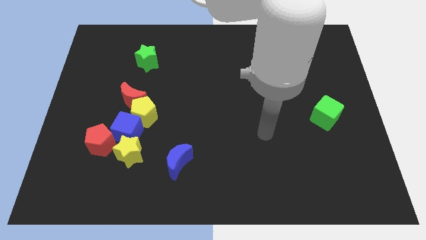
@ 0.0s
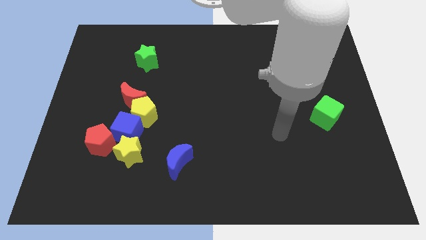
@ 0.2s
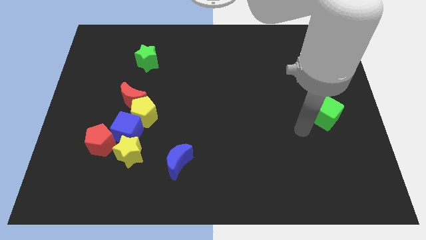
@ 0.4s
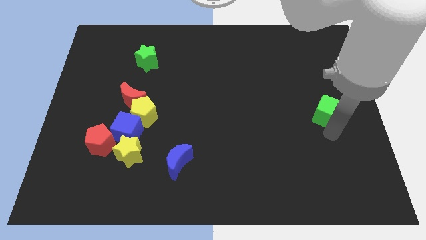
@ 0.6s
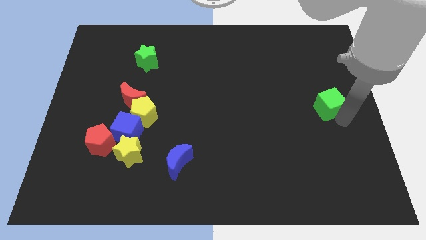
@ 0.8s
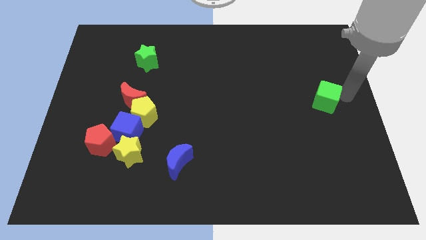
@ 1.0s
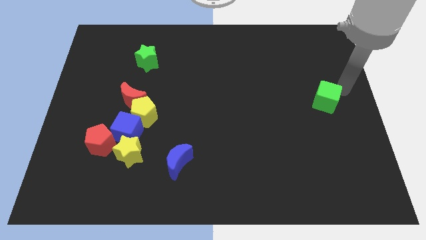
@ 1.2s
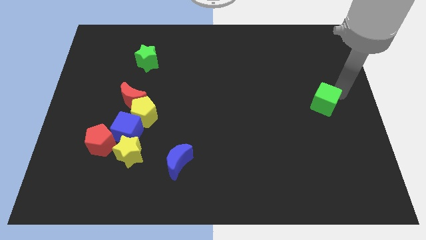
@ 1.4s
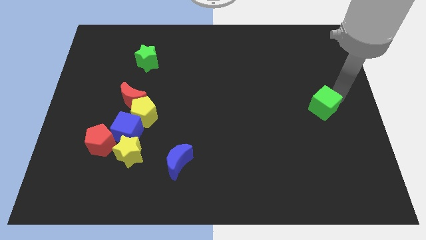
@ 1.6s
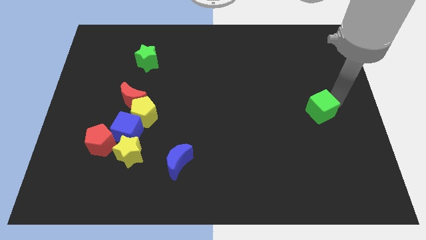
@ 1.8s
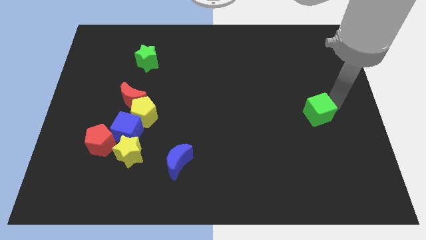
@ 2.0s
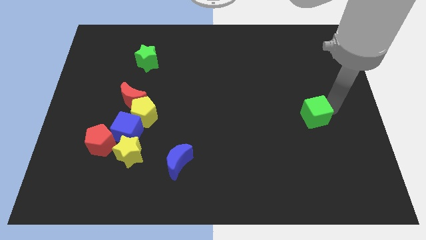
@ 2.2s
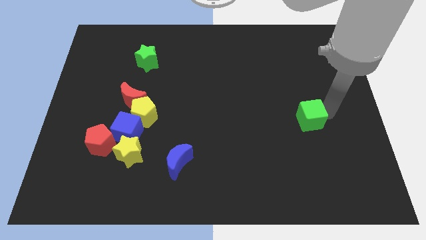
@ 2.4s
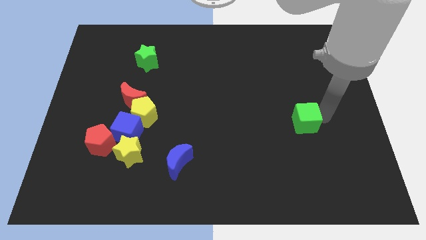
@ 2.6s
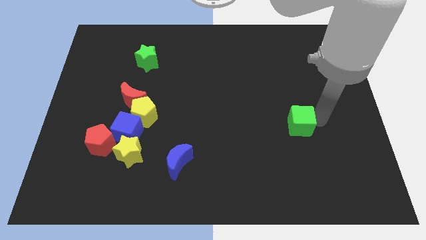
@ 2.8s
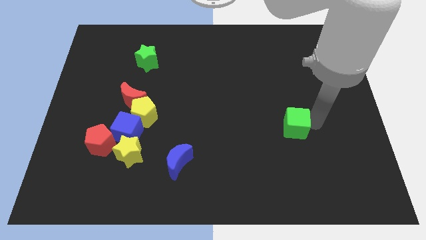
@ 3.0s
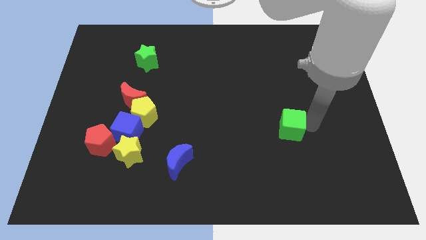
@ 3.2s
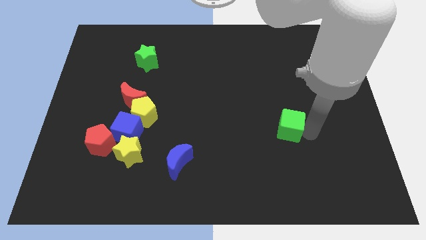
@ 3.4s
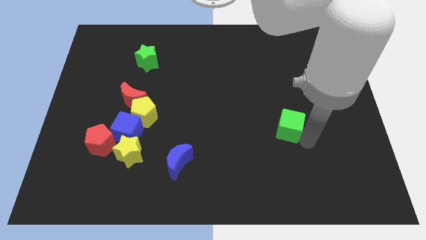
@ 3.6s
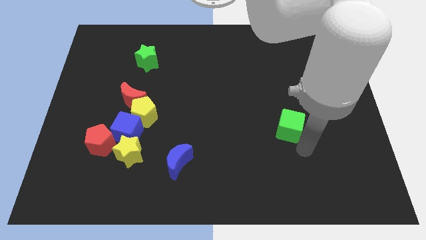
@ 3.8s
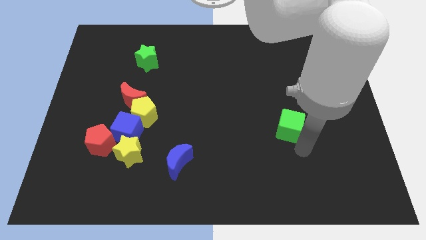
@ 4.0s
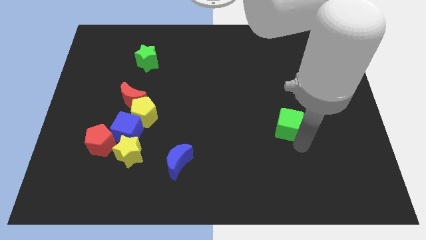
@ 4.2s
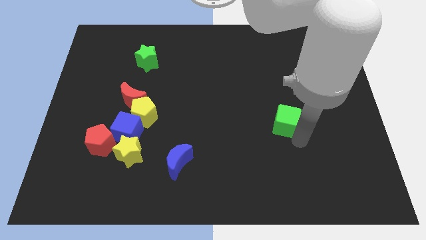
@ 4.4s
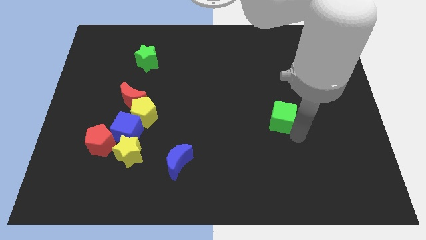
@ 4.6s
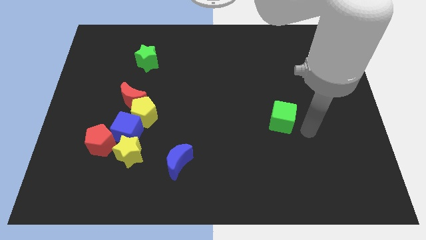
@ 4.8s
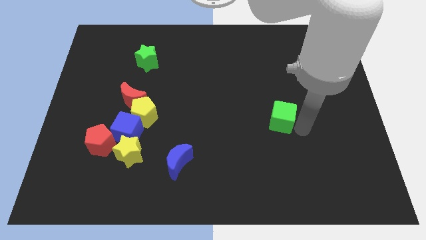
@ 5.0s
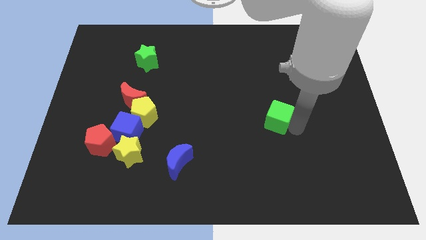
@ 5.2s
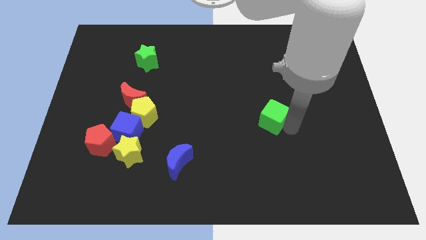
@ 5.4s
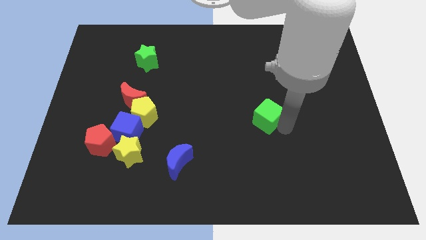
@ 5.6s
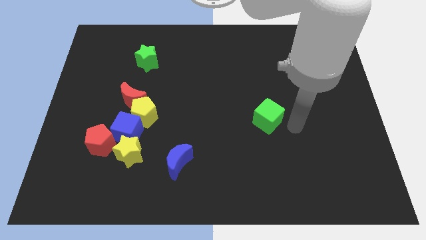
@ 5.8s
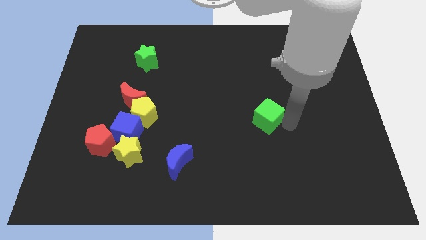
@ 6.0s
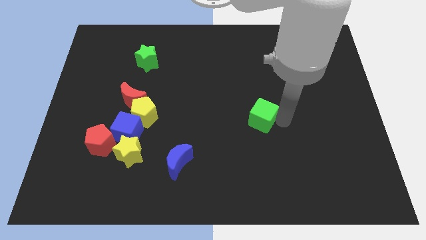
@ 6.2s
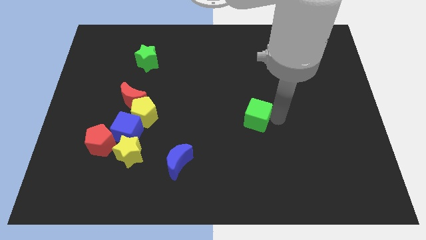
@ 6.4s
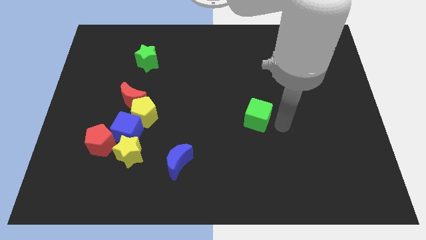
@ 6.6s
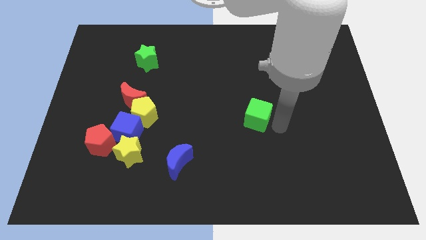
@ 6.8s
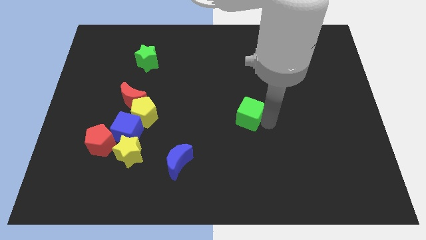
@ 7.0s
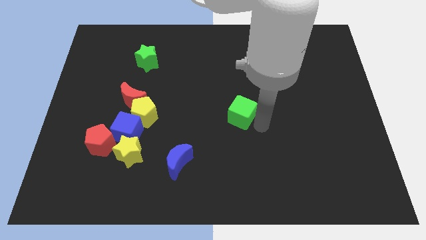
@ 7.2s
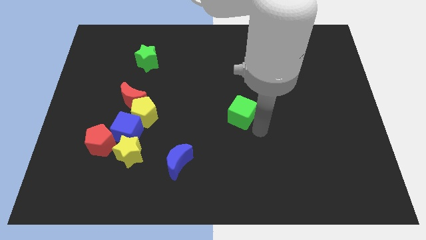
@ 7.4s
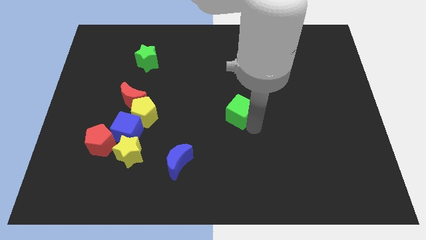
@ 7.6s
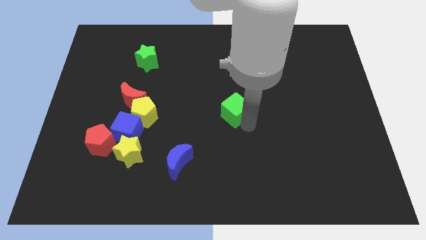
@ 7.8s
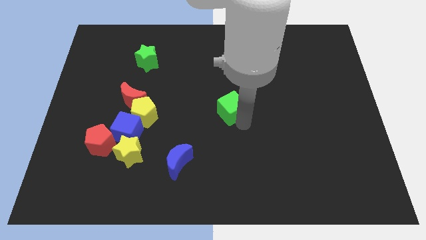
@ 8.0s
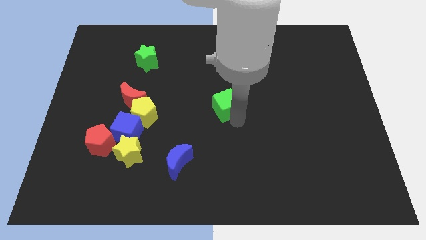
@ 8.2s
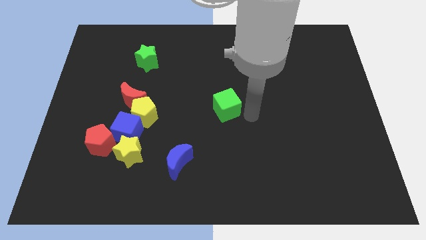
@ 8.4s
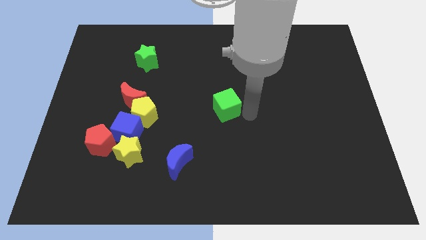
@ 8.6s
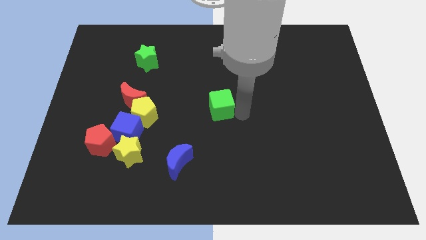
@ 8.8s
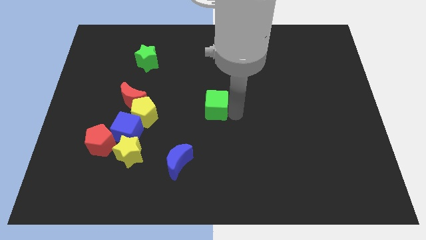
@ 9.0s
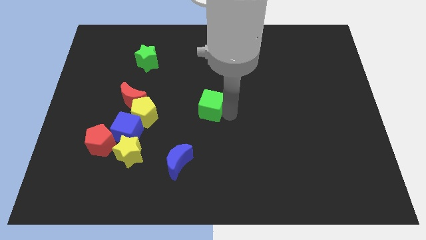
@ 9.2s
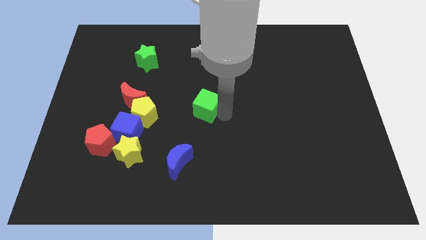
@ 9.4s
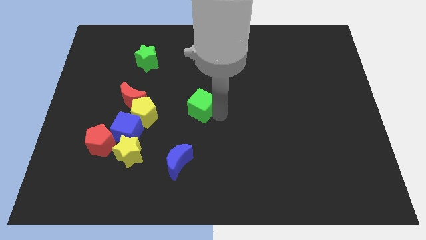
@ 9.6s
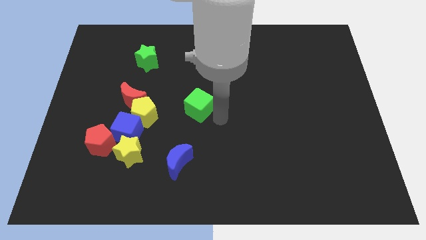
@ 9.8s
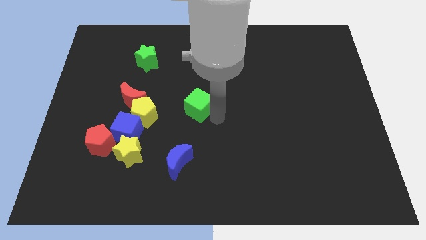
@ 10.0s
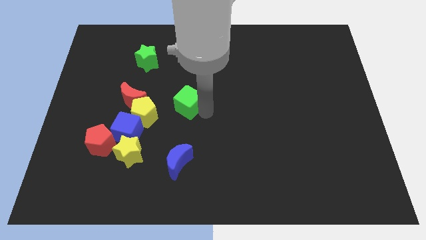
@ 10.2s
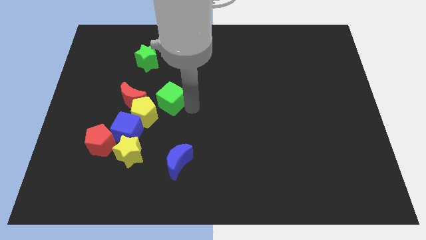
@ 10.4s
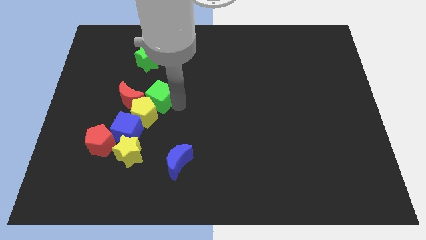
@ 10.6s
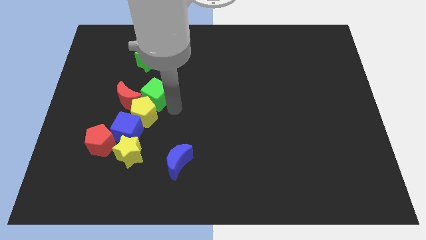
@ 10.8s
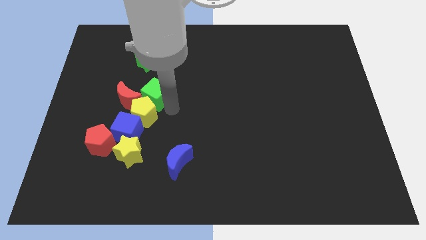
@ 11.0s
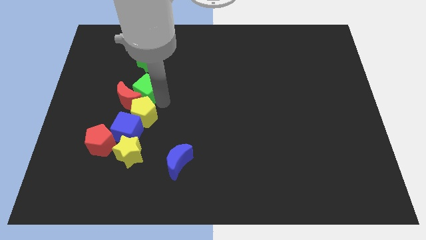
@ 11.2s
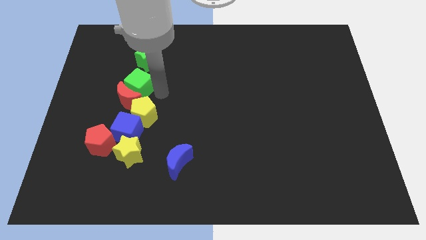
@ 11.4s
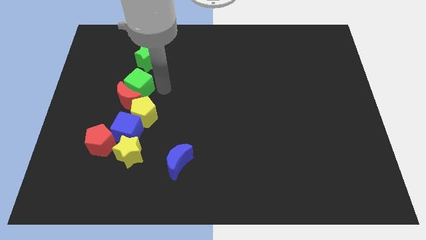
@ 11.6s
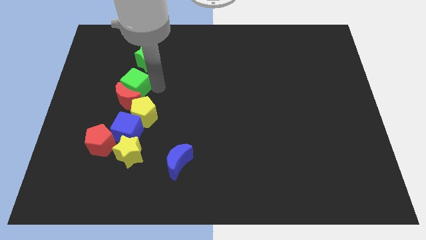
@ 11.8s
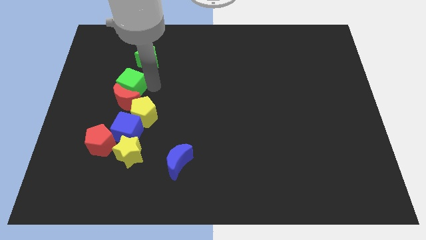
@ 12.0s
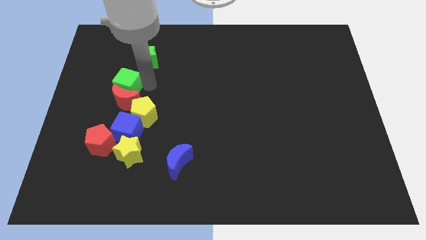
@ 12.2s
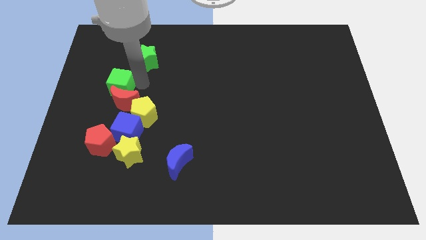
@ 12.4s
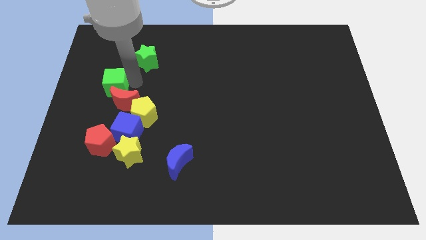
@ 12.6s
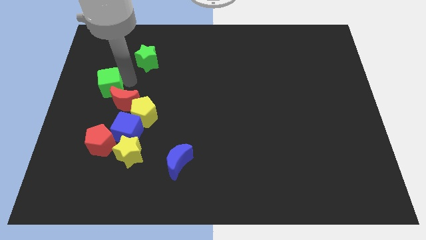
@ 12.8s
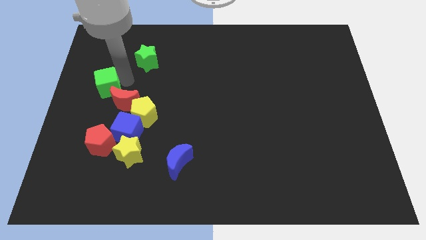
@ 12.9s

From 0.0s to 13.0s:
put the green cube to the left side
